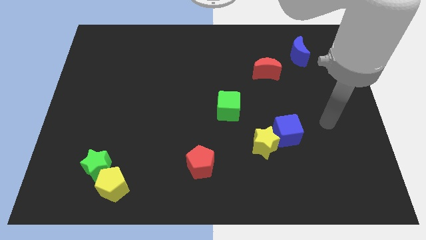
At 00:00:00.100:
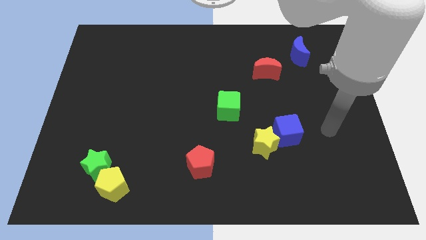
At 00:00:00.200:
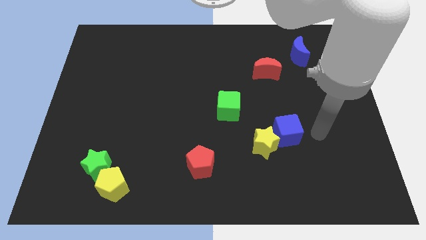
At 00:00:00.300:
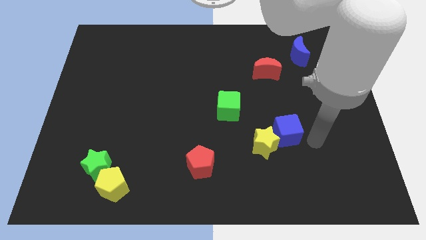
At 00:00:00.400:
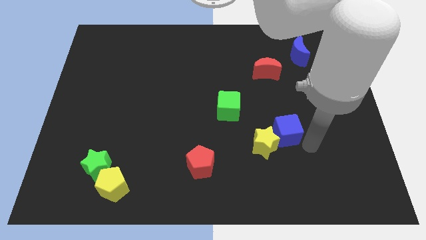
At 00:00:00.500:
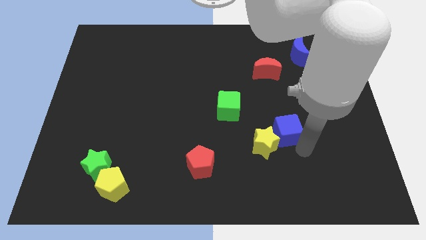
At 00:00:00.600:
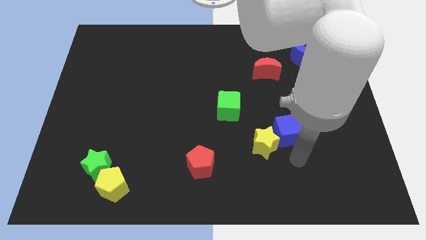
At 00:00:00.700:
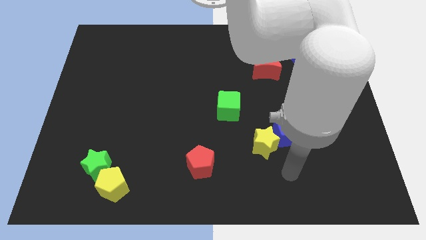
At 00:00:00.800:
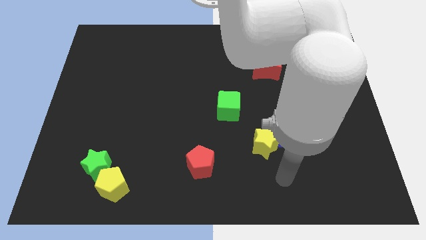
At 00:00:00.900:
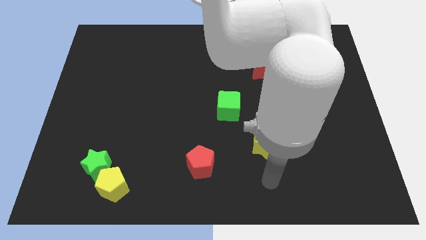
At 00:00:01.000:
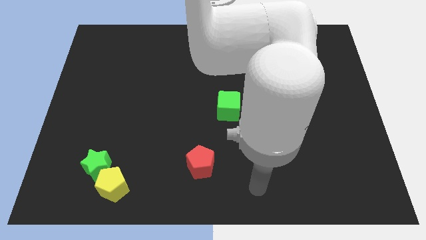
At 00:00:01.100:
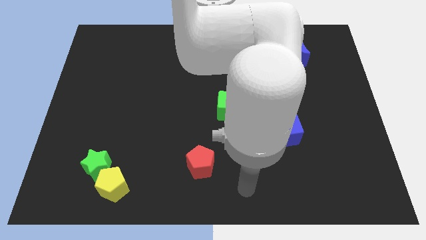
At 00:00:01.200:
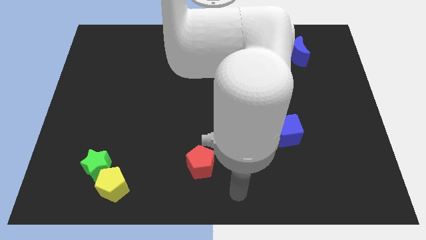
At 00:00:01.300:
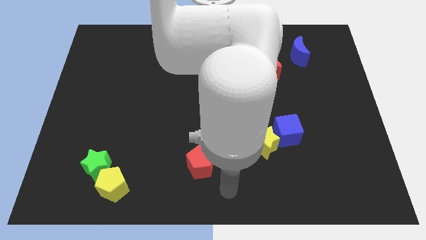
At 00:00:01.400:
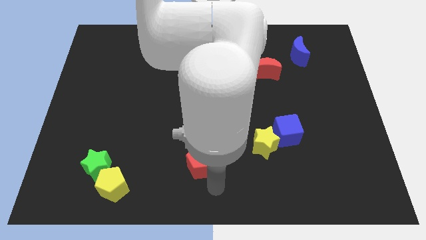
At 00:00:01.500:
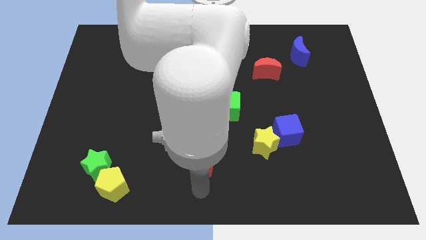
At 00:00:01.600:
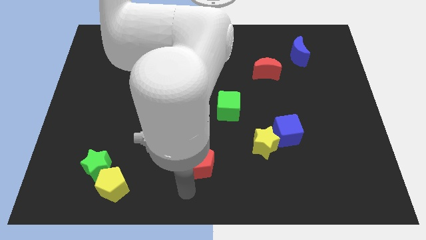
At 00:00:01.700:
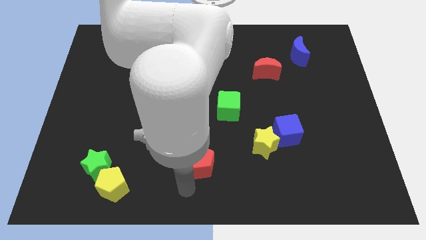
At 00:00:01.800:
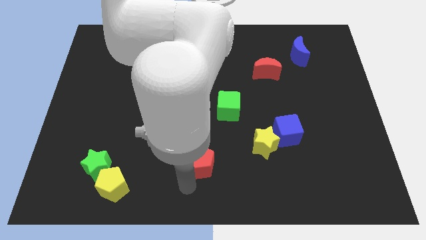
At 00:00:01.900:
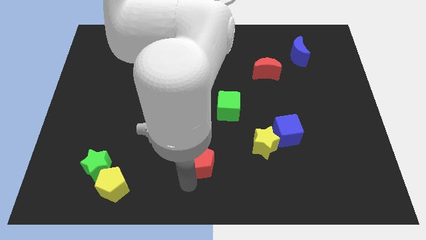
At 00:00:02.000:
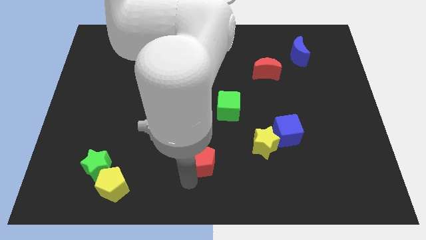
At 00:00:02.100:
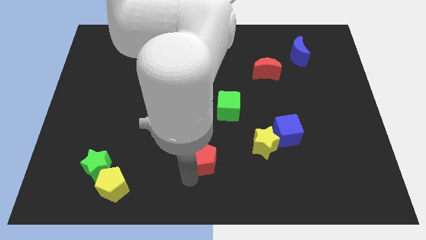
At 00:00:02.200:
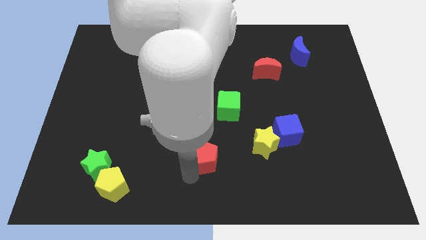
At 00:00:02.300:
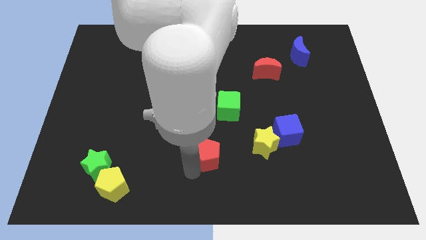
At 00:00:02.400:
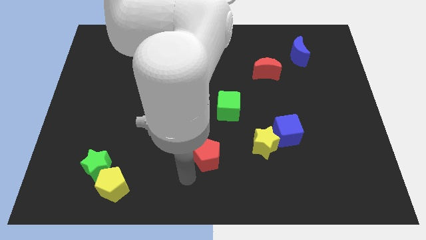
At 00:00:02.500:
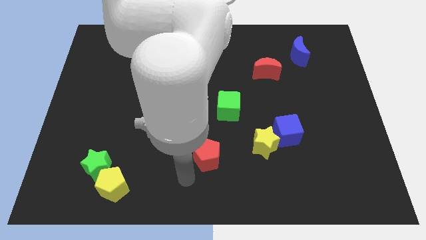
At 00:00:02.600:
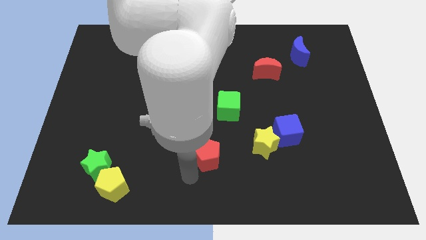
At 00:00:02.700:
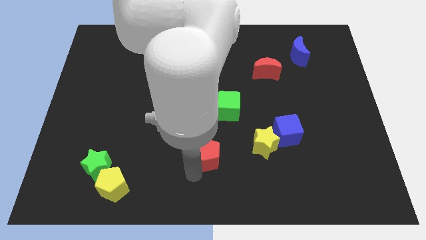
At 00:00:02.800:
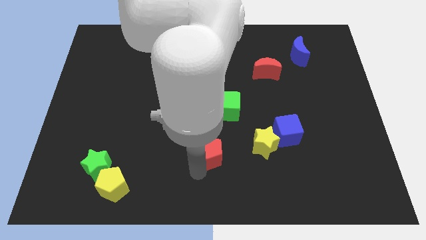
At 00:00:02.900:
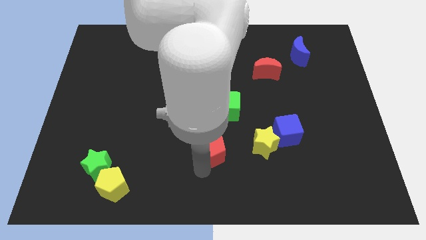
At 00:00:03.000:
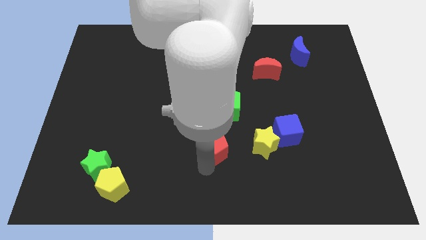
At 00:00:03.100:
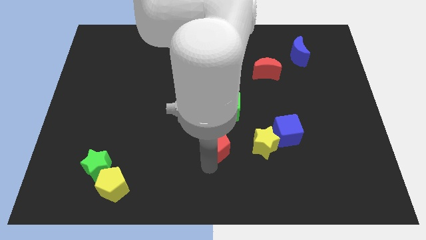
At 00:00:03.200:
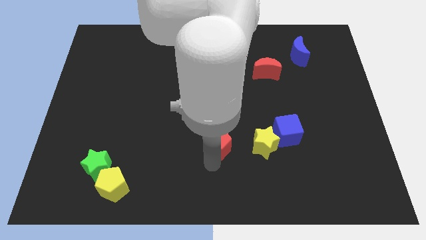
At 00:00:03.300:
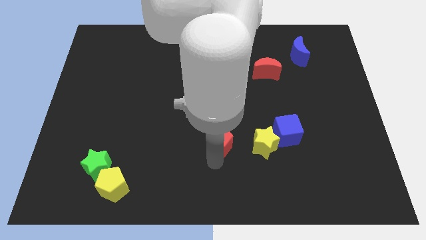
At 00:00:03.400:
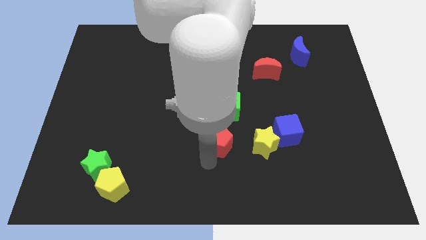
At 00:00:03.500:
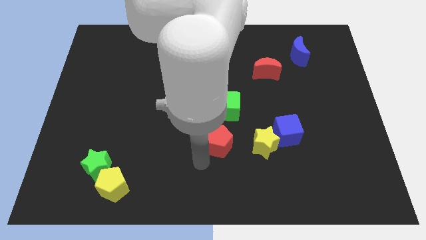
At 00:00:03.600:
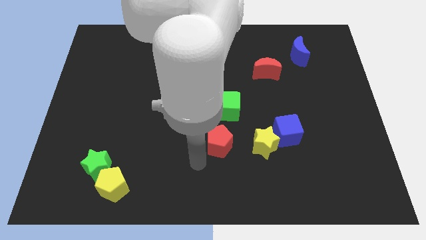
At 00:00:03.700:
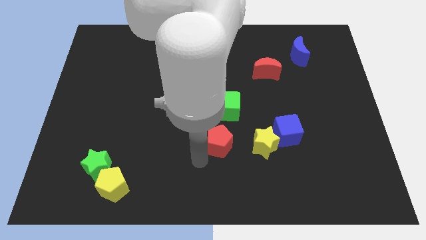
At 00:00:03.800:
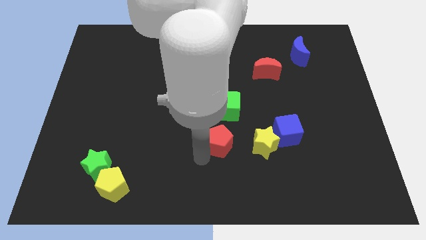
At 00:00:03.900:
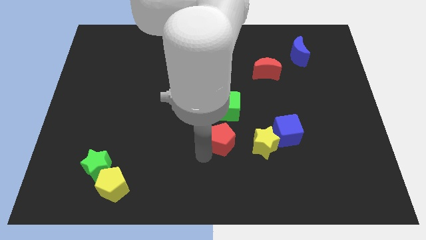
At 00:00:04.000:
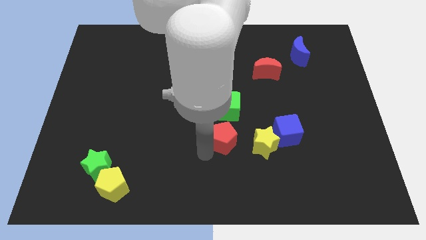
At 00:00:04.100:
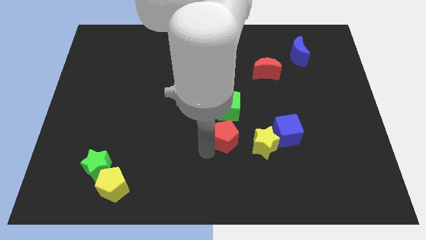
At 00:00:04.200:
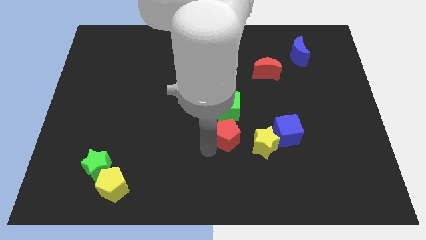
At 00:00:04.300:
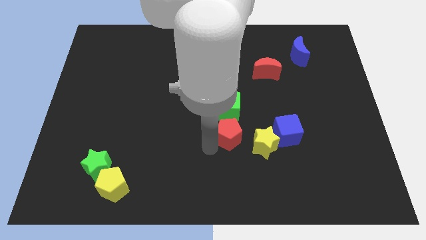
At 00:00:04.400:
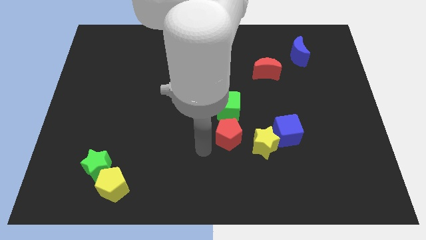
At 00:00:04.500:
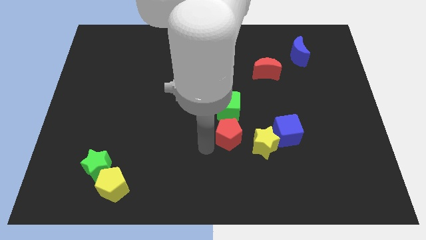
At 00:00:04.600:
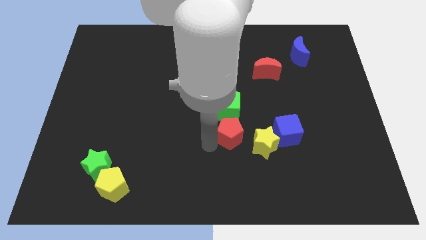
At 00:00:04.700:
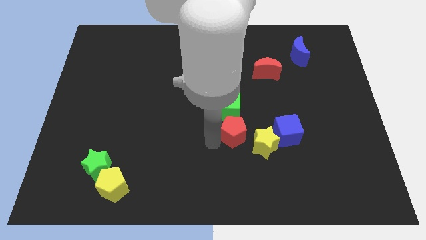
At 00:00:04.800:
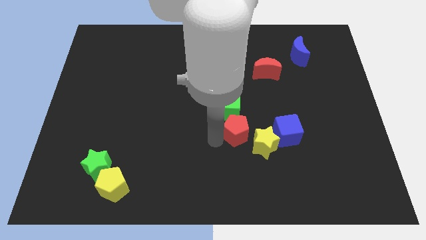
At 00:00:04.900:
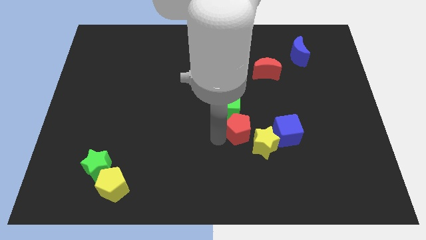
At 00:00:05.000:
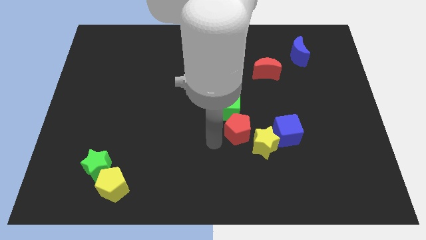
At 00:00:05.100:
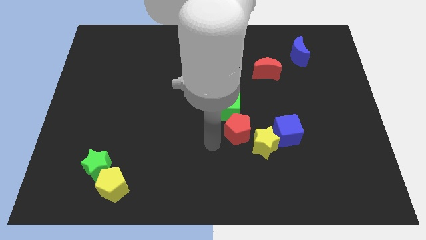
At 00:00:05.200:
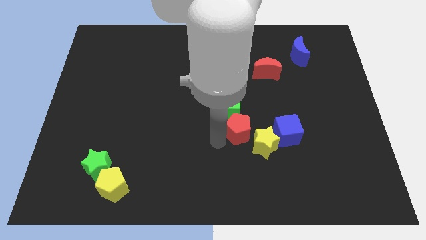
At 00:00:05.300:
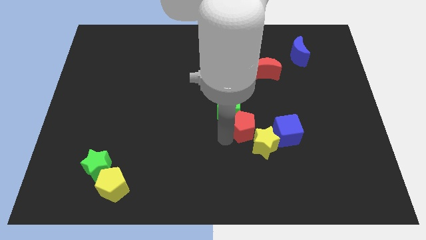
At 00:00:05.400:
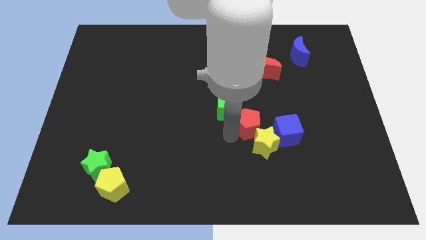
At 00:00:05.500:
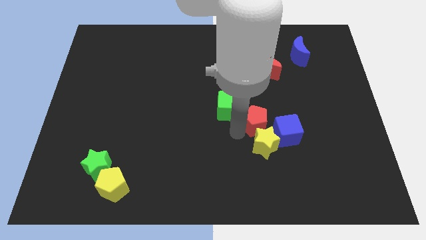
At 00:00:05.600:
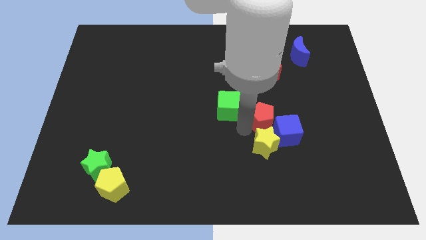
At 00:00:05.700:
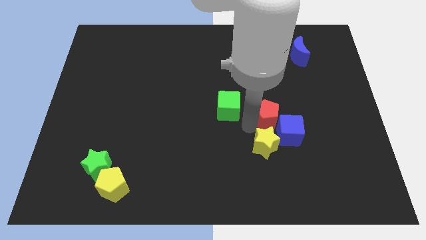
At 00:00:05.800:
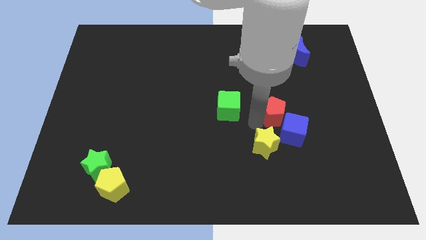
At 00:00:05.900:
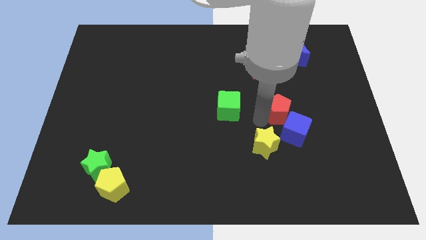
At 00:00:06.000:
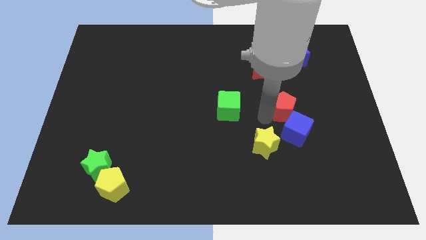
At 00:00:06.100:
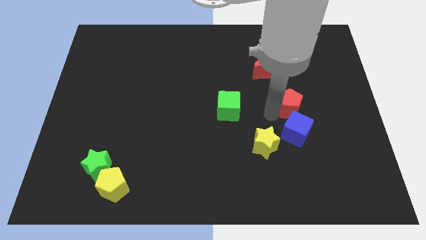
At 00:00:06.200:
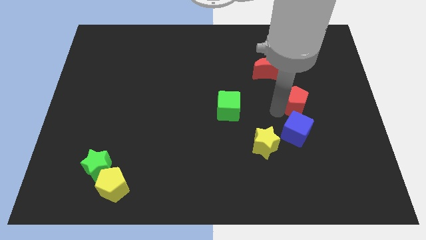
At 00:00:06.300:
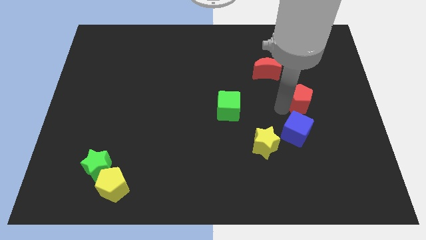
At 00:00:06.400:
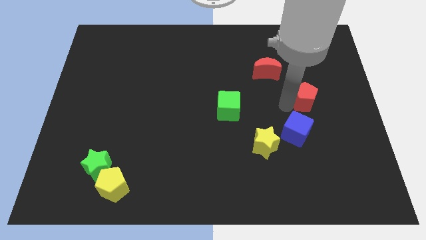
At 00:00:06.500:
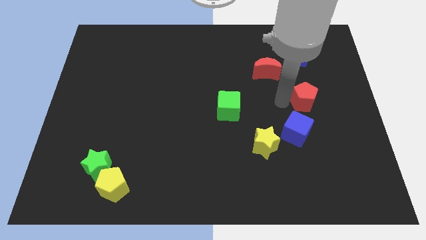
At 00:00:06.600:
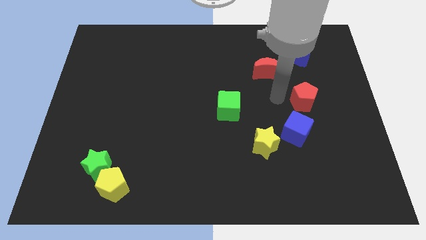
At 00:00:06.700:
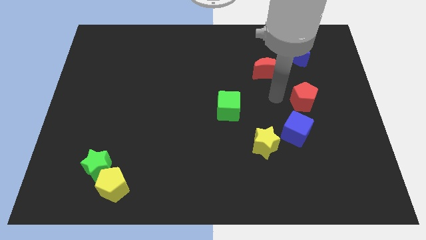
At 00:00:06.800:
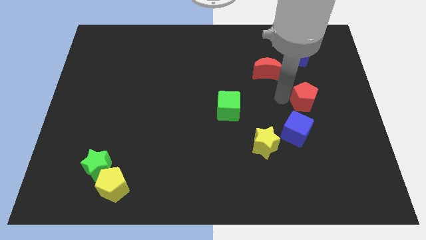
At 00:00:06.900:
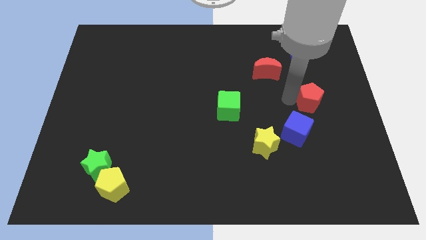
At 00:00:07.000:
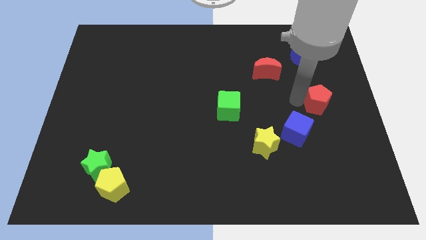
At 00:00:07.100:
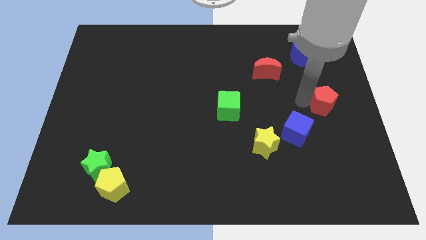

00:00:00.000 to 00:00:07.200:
slide the red pentagon to the center right
